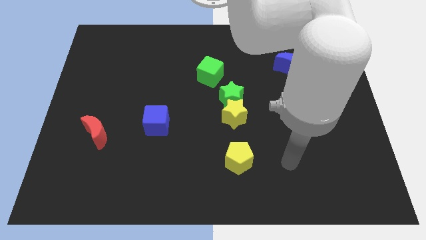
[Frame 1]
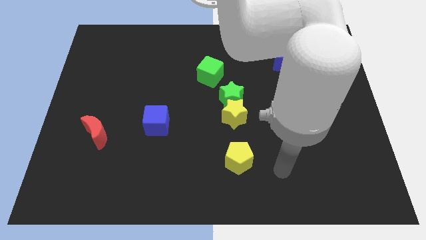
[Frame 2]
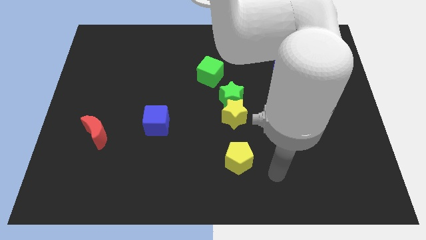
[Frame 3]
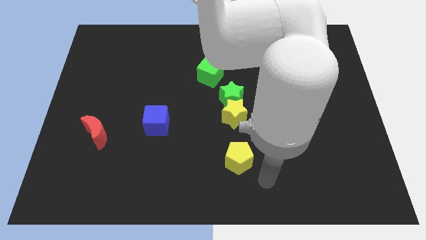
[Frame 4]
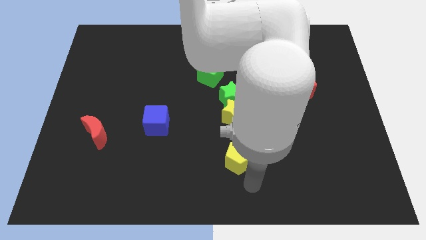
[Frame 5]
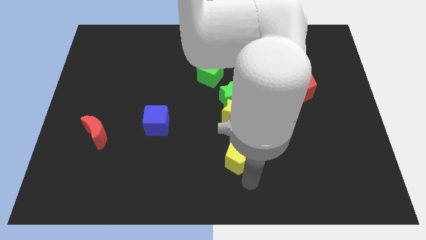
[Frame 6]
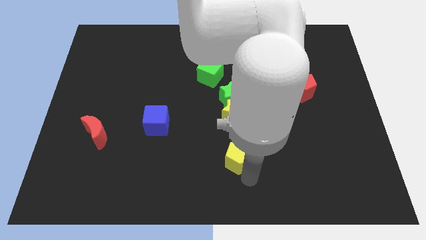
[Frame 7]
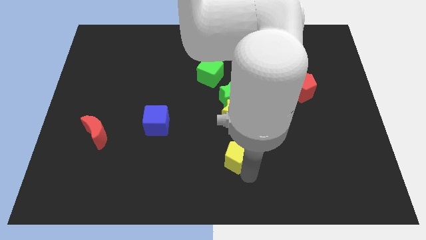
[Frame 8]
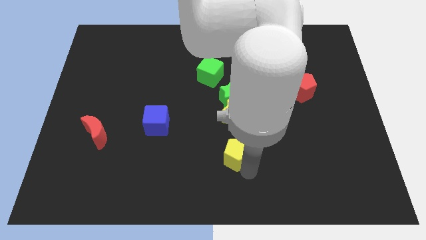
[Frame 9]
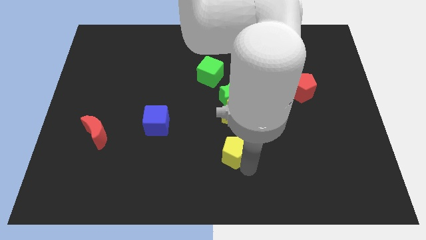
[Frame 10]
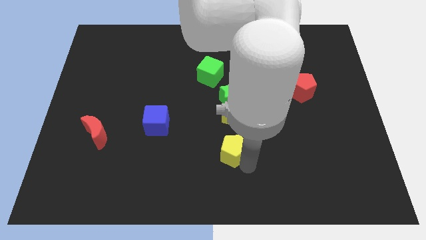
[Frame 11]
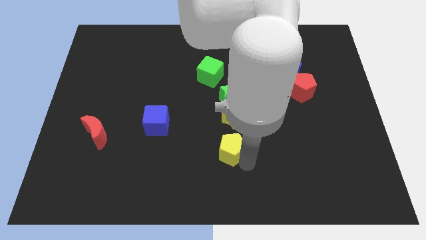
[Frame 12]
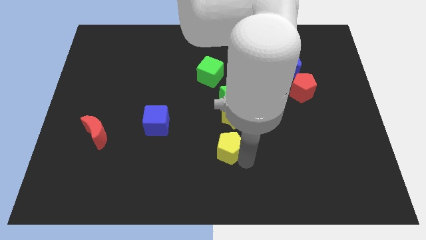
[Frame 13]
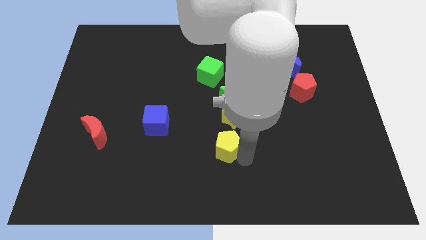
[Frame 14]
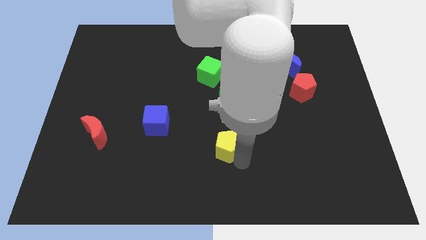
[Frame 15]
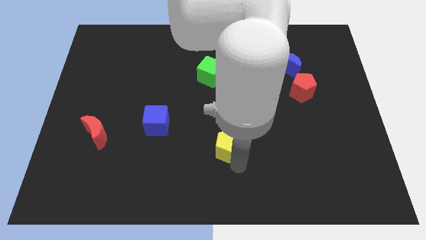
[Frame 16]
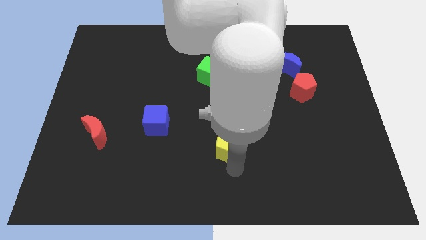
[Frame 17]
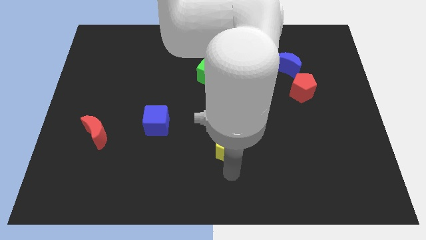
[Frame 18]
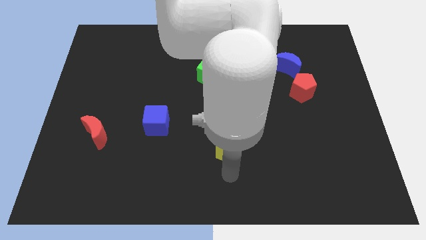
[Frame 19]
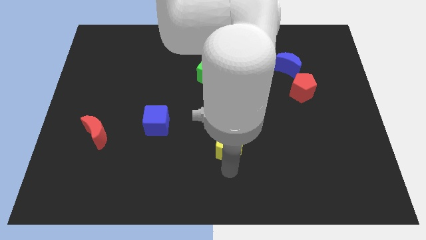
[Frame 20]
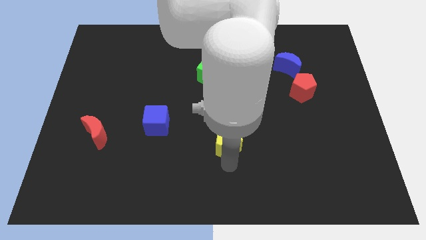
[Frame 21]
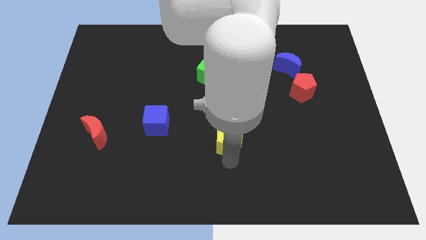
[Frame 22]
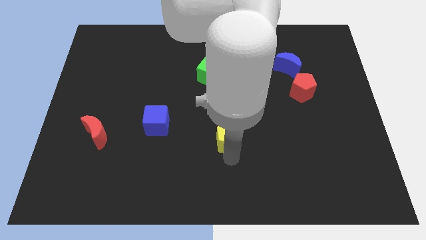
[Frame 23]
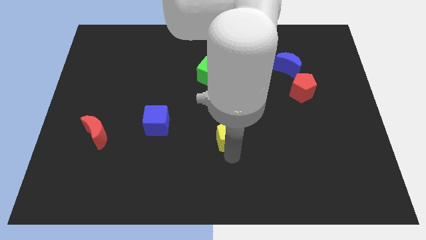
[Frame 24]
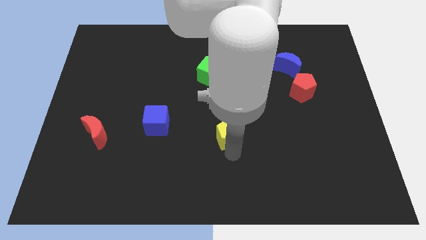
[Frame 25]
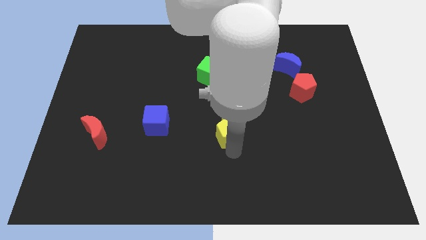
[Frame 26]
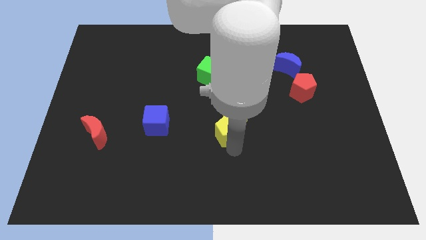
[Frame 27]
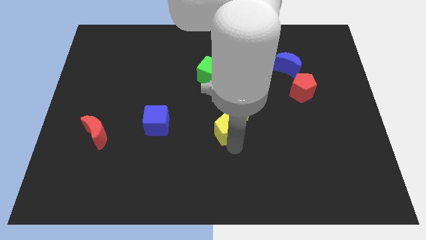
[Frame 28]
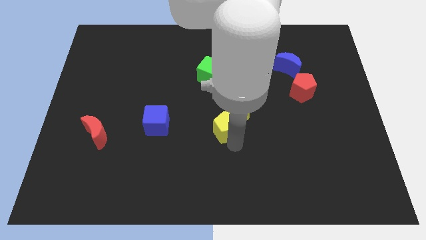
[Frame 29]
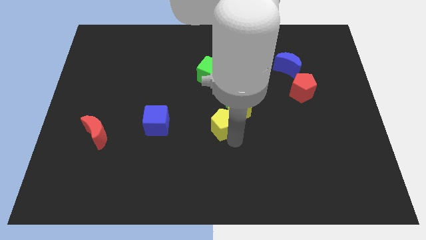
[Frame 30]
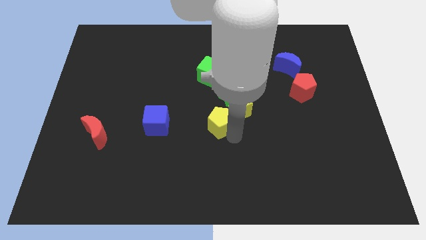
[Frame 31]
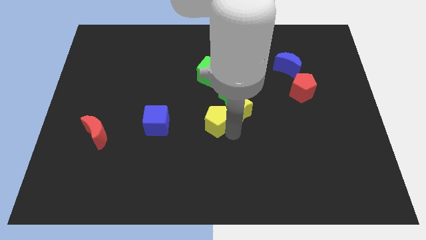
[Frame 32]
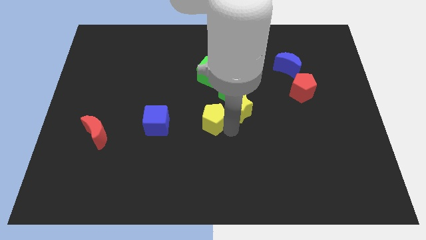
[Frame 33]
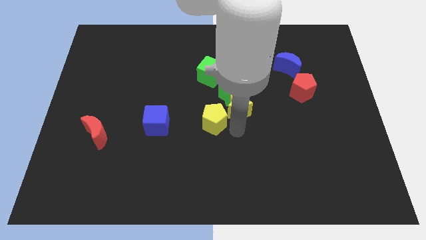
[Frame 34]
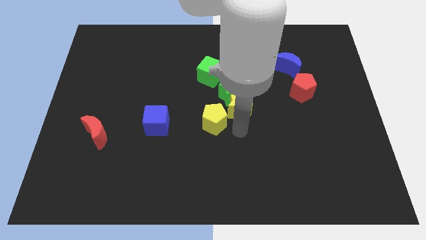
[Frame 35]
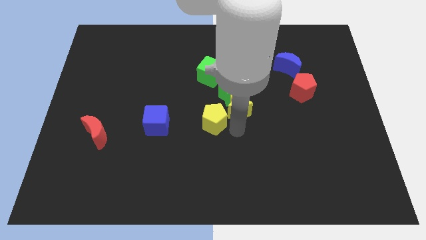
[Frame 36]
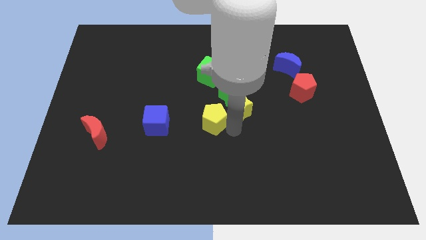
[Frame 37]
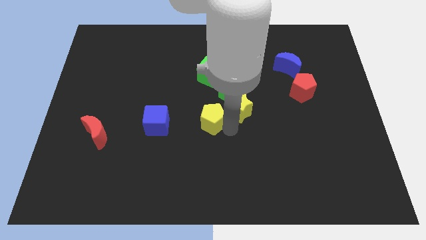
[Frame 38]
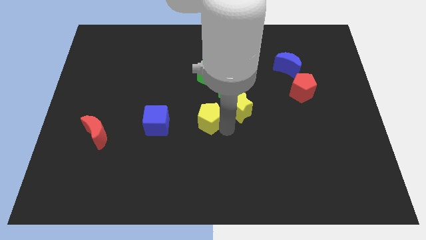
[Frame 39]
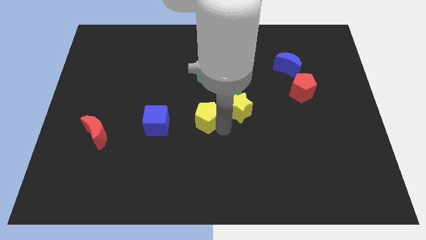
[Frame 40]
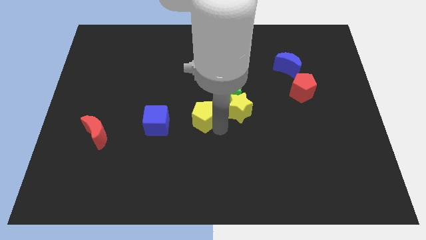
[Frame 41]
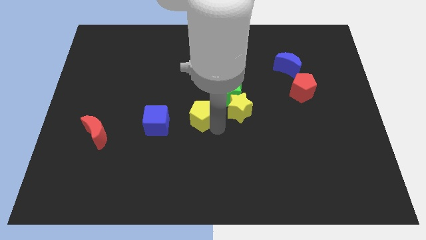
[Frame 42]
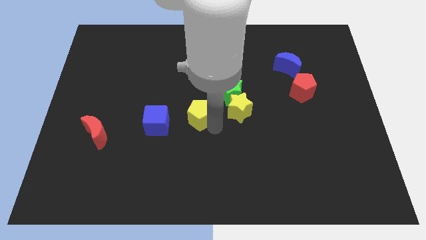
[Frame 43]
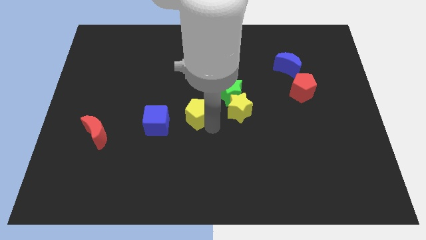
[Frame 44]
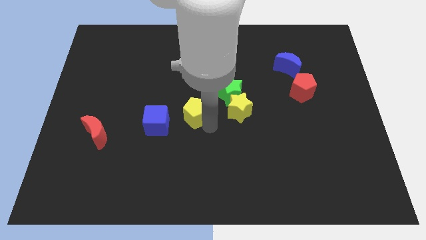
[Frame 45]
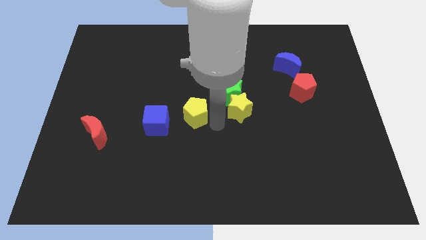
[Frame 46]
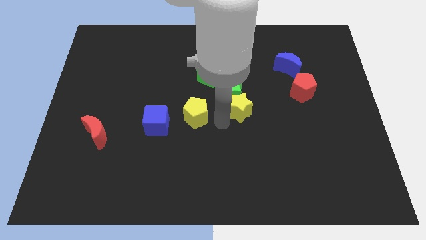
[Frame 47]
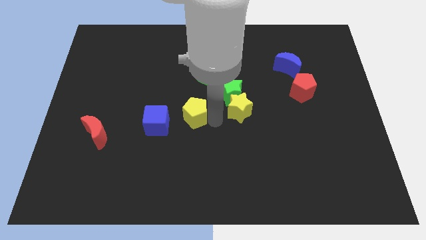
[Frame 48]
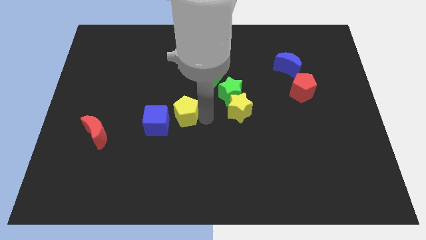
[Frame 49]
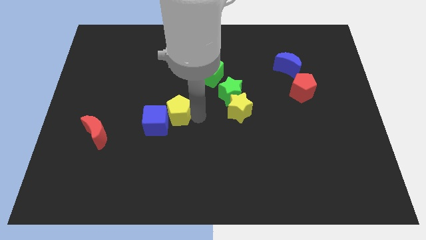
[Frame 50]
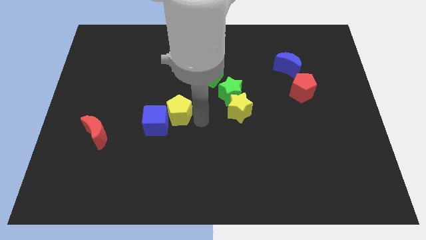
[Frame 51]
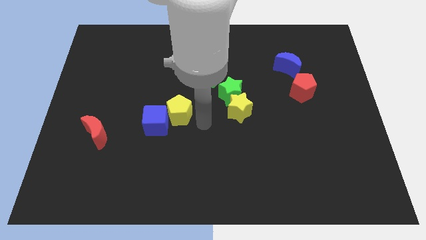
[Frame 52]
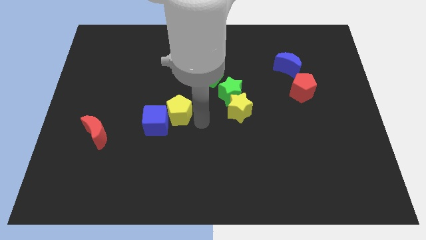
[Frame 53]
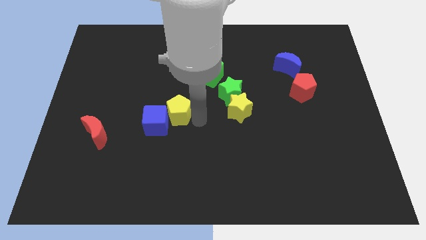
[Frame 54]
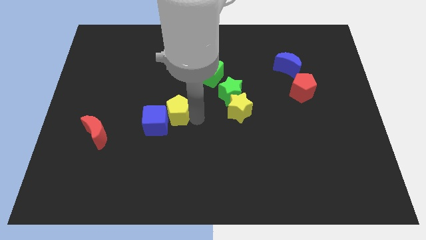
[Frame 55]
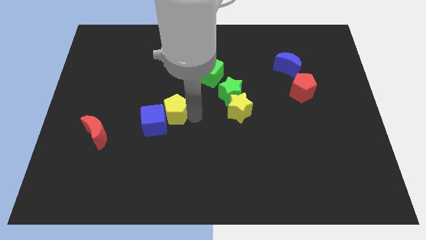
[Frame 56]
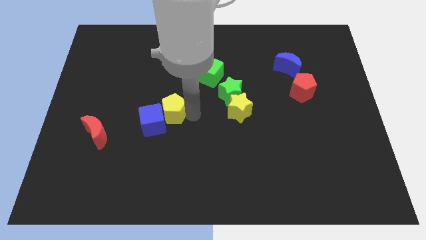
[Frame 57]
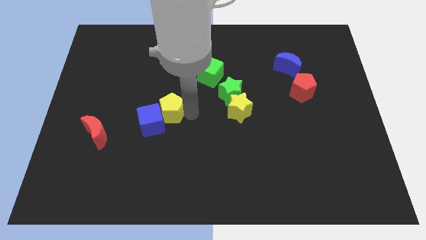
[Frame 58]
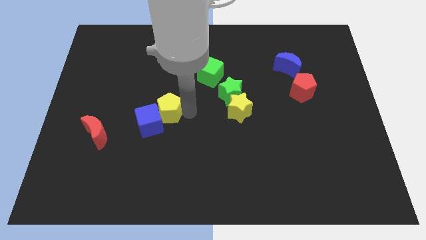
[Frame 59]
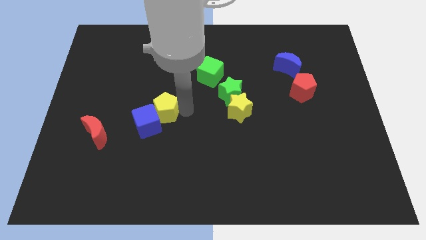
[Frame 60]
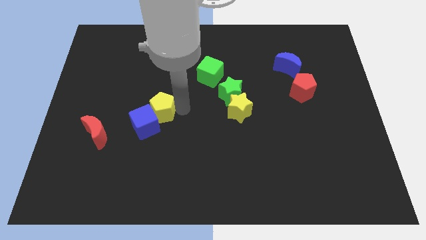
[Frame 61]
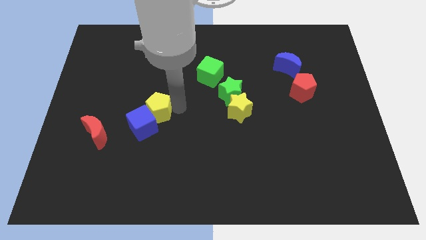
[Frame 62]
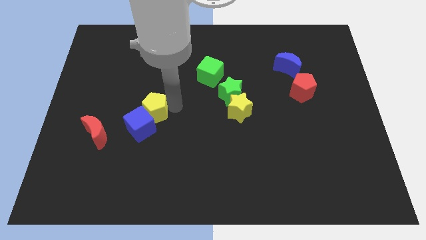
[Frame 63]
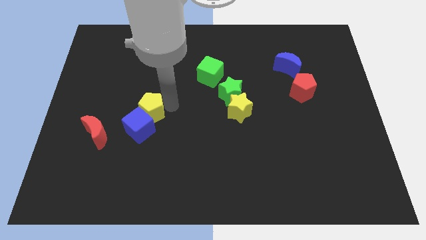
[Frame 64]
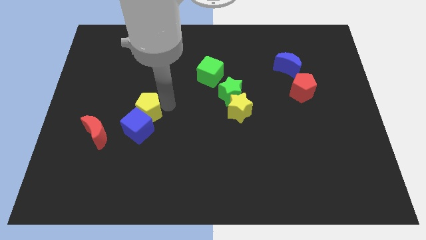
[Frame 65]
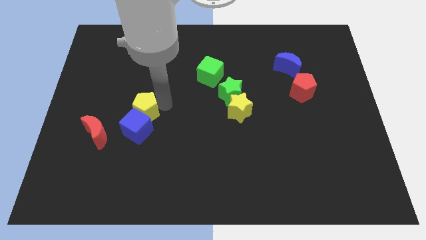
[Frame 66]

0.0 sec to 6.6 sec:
push the yellow pentagon diagonally up and to the left of the blue cube

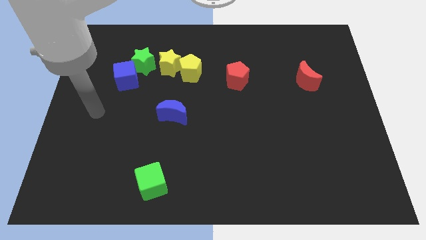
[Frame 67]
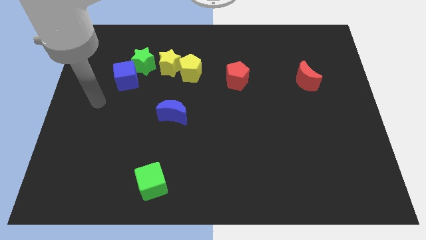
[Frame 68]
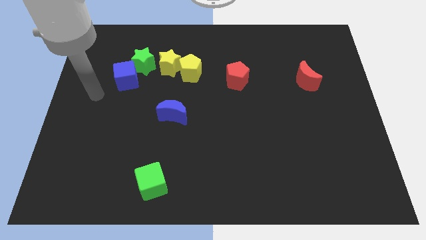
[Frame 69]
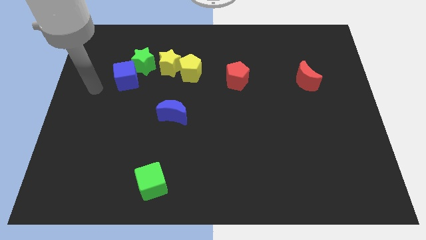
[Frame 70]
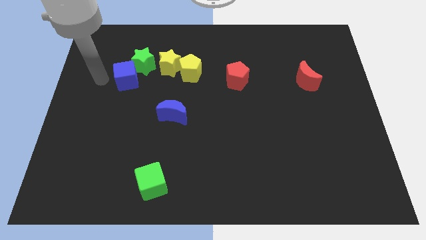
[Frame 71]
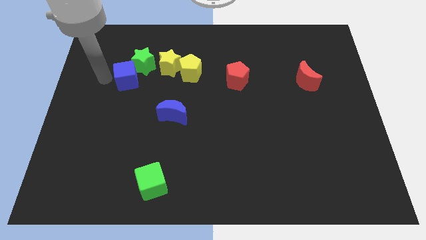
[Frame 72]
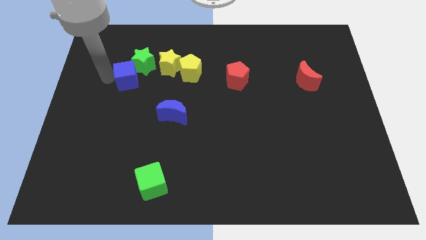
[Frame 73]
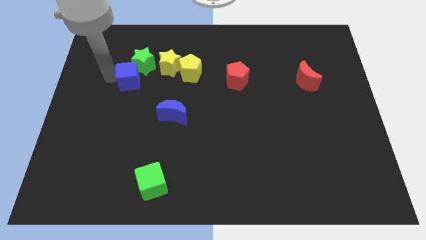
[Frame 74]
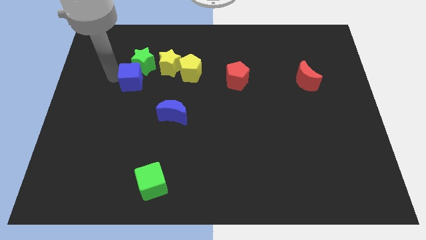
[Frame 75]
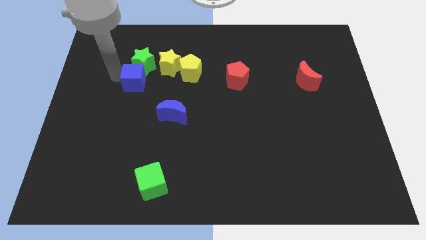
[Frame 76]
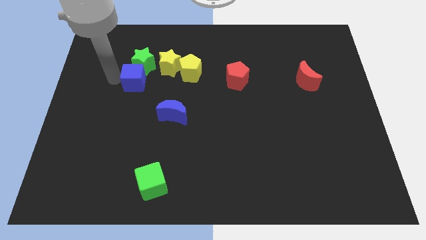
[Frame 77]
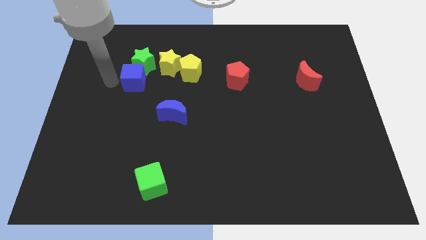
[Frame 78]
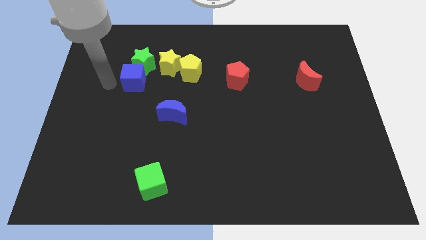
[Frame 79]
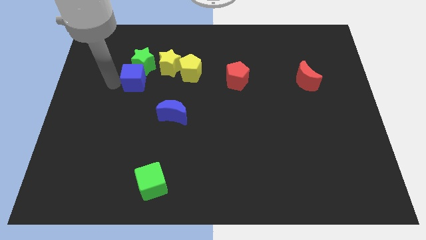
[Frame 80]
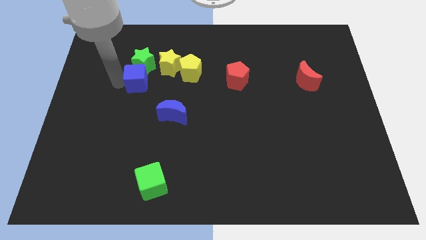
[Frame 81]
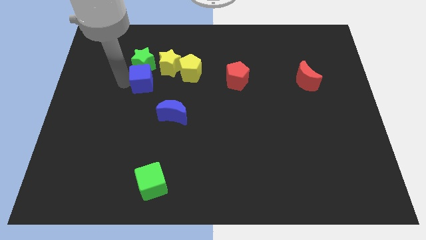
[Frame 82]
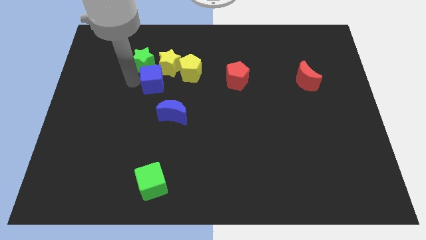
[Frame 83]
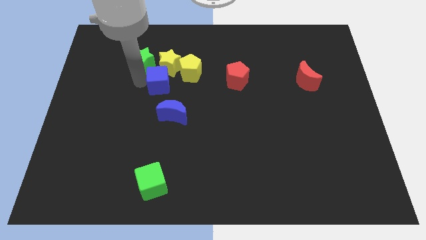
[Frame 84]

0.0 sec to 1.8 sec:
move the blue cube to the top of the blue moon
